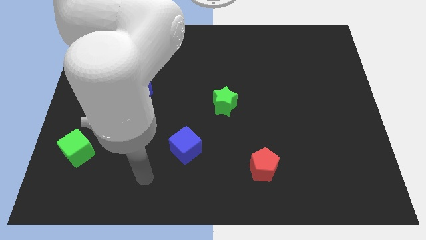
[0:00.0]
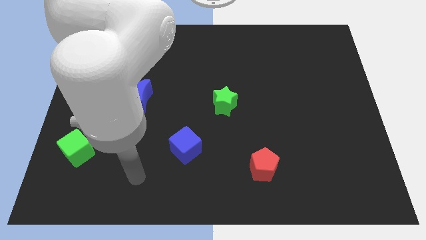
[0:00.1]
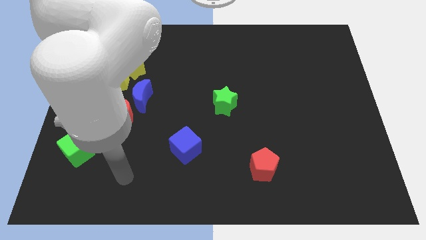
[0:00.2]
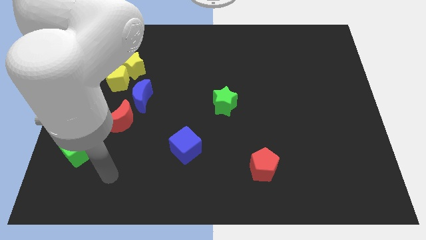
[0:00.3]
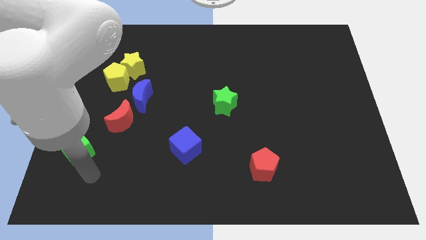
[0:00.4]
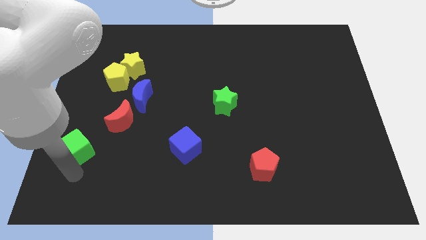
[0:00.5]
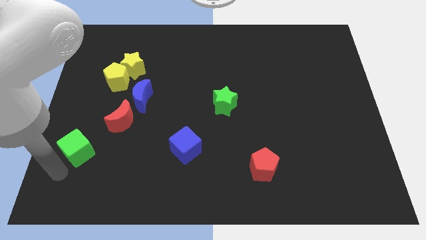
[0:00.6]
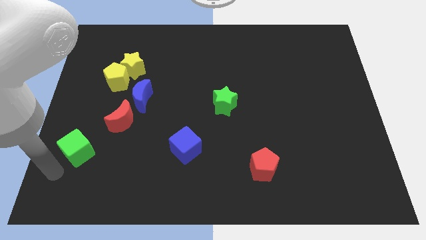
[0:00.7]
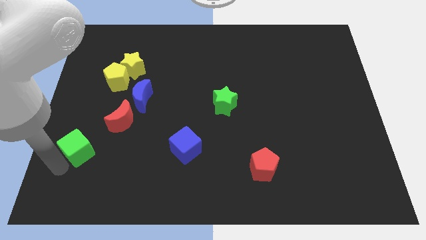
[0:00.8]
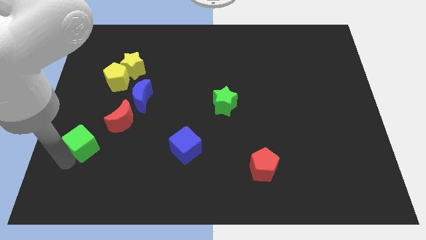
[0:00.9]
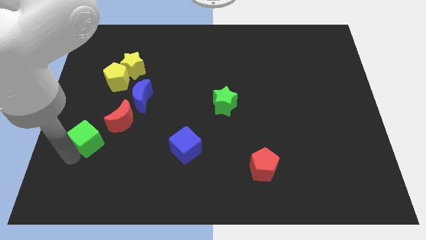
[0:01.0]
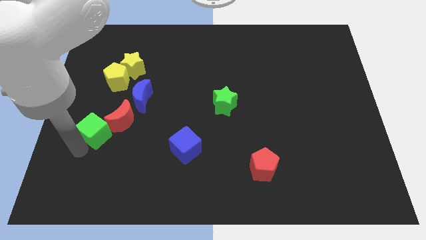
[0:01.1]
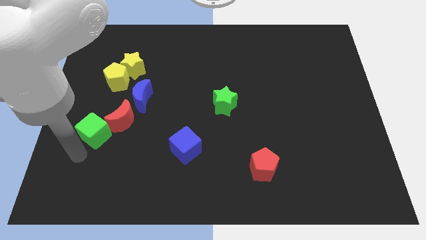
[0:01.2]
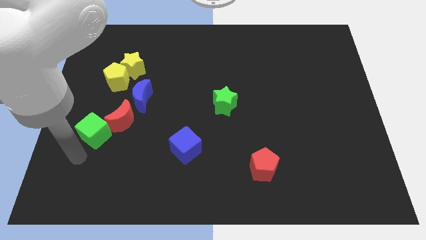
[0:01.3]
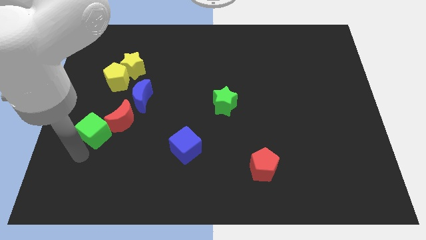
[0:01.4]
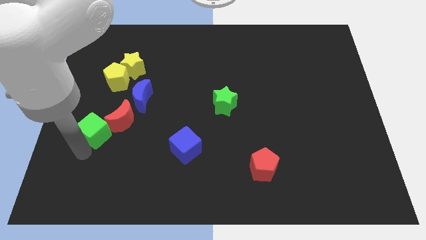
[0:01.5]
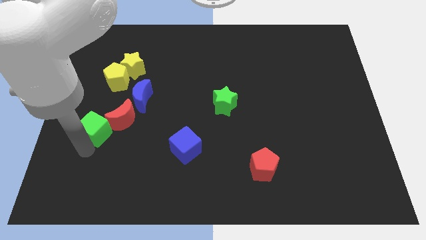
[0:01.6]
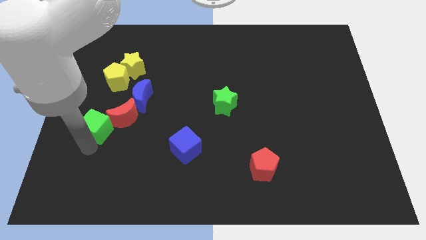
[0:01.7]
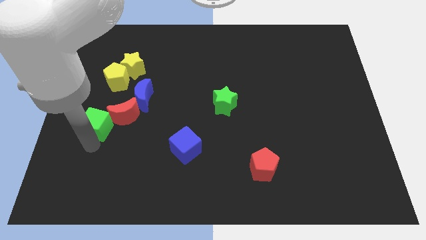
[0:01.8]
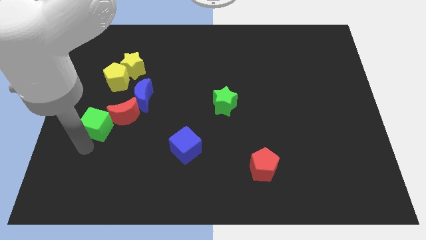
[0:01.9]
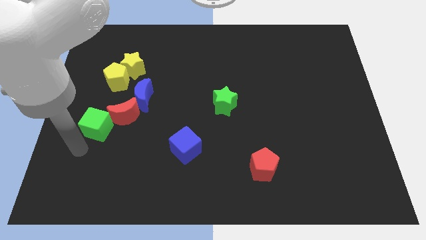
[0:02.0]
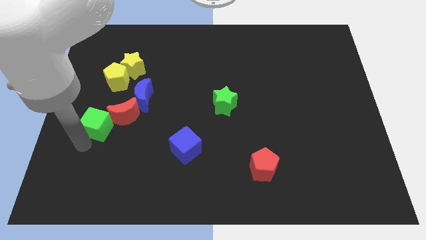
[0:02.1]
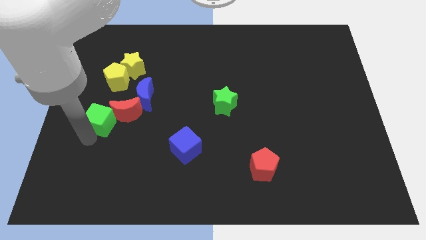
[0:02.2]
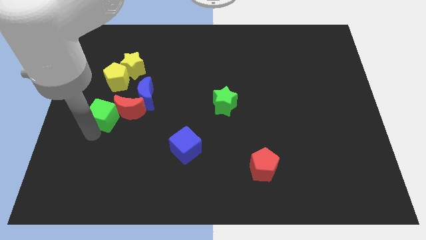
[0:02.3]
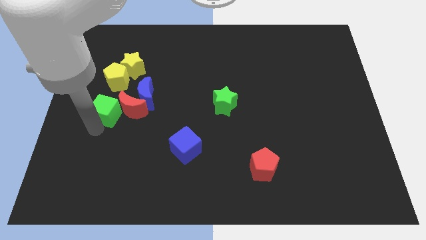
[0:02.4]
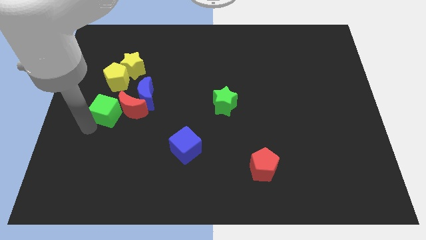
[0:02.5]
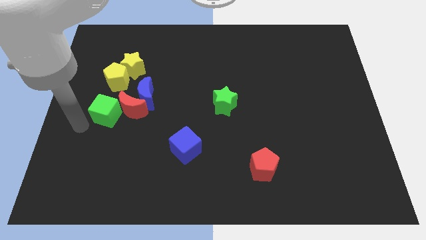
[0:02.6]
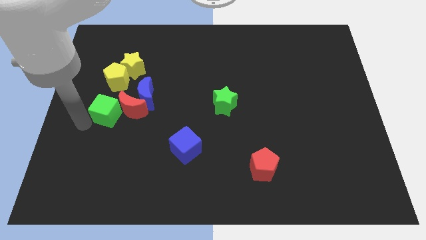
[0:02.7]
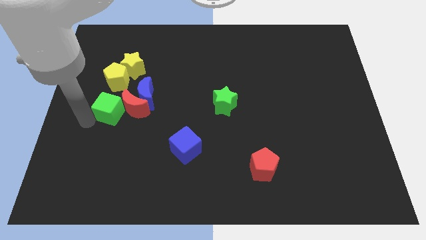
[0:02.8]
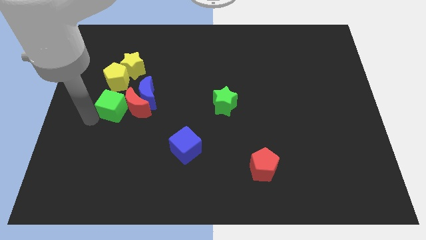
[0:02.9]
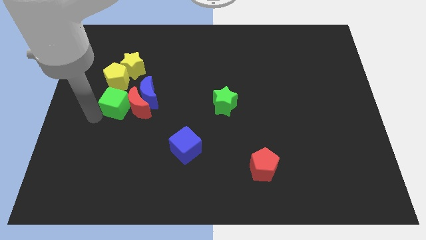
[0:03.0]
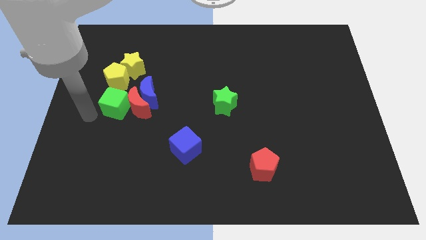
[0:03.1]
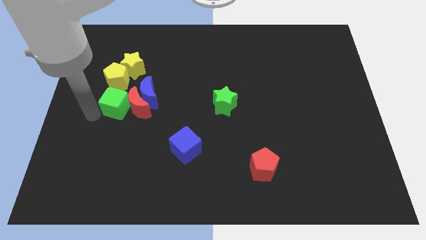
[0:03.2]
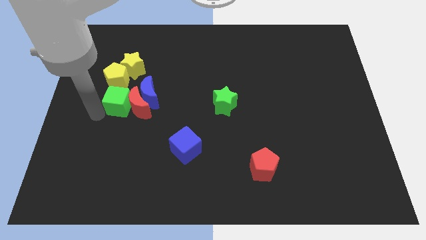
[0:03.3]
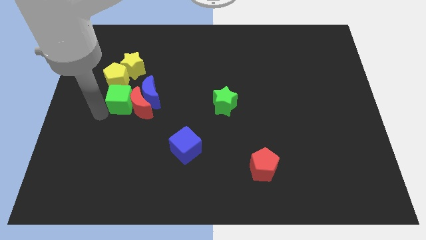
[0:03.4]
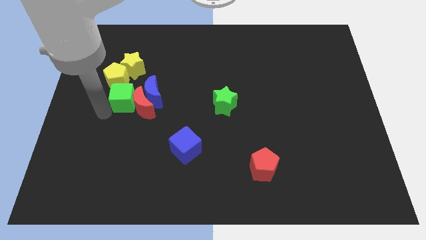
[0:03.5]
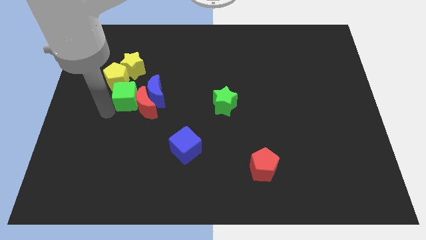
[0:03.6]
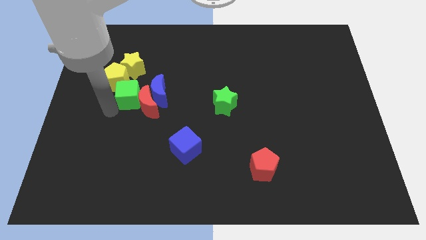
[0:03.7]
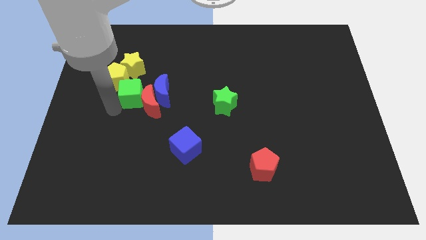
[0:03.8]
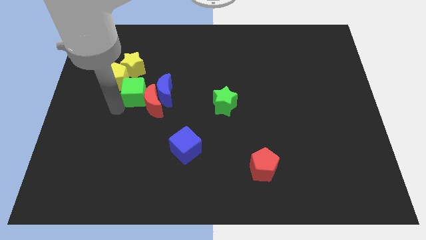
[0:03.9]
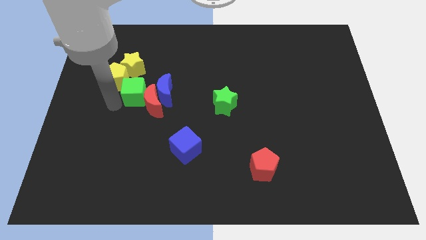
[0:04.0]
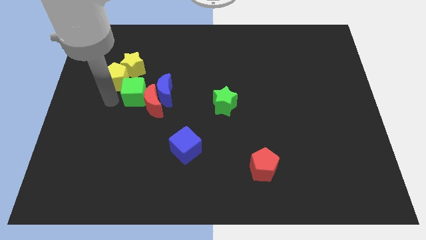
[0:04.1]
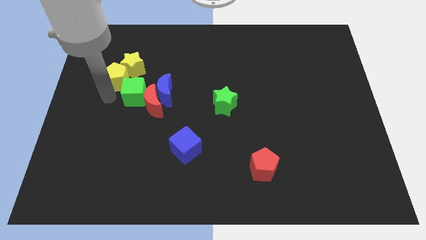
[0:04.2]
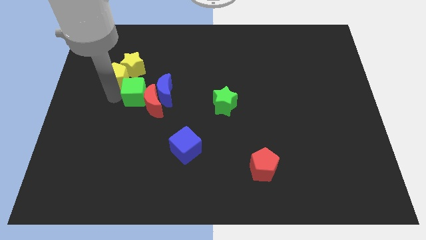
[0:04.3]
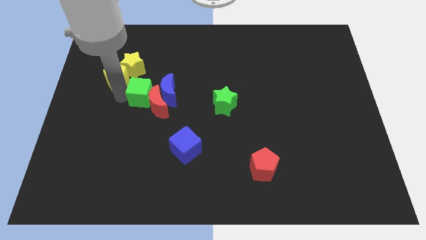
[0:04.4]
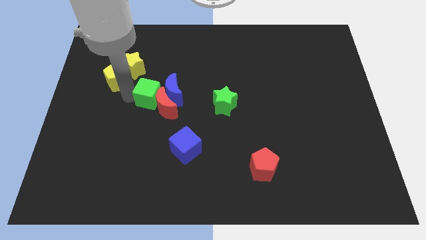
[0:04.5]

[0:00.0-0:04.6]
push the green cube close to the blue moon

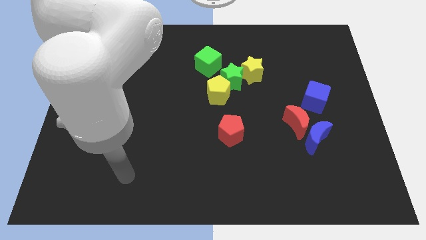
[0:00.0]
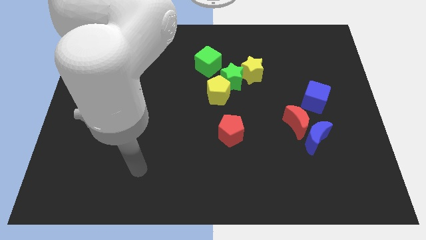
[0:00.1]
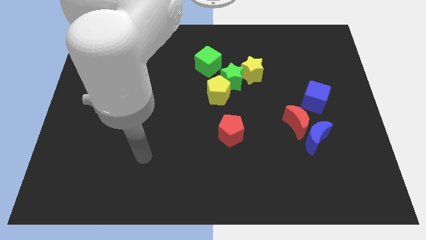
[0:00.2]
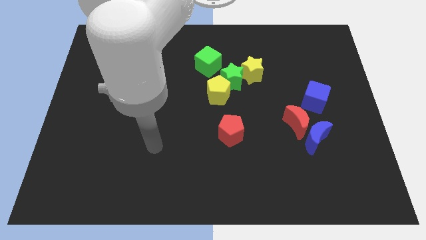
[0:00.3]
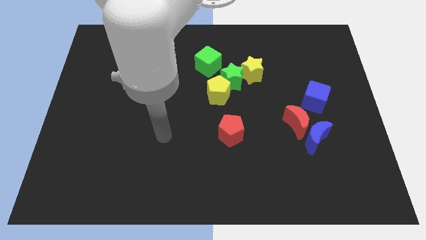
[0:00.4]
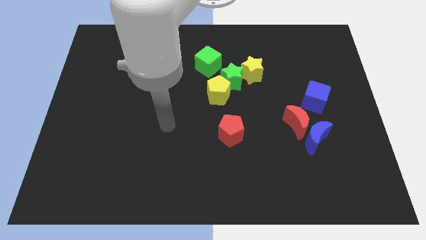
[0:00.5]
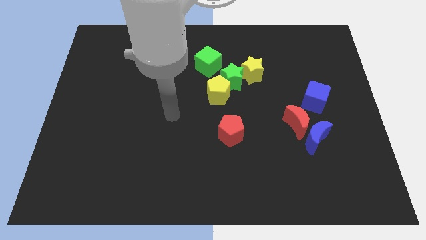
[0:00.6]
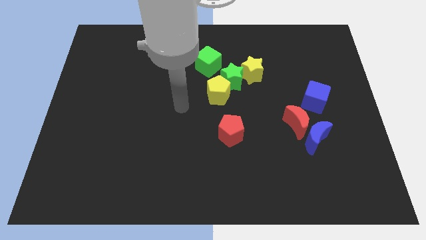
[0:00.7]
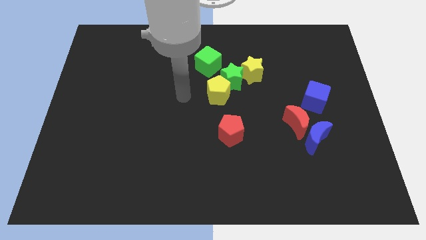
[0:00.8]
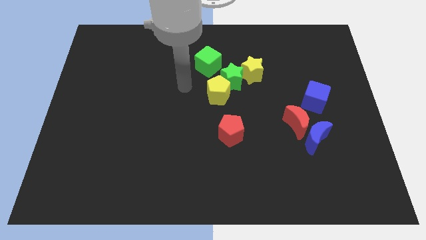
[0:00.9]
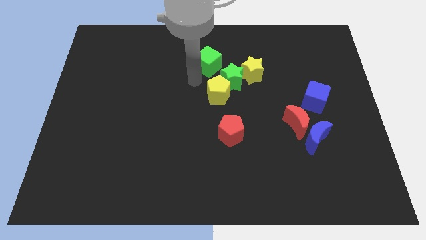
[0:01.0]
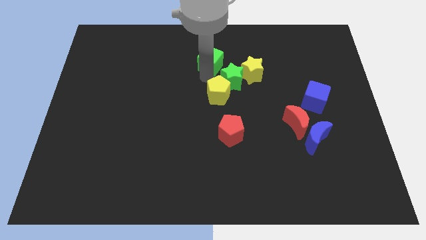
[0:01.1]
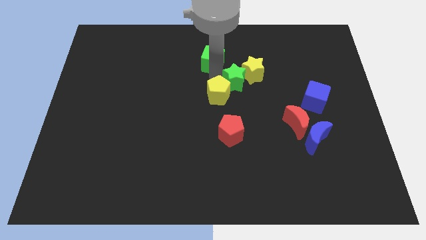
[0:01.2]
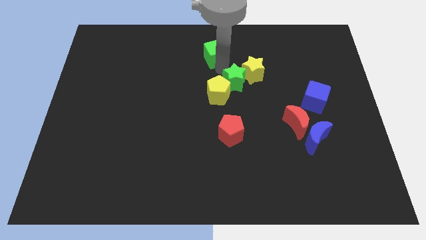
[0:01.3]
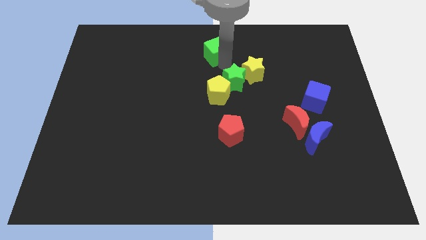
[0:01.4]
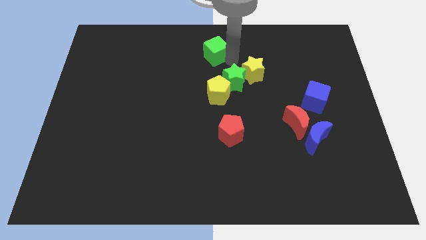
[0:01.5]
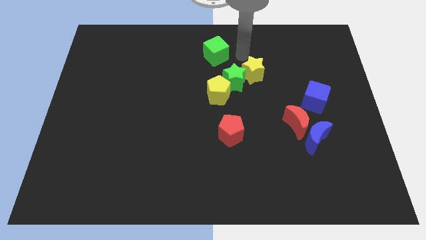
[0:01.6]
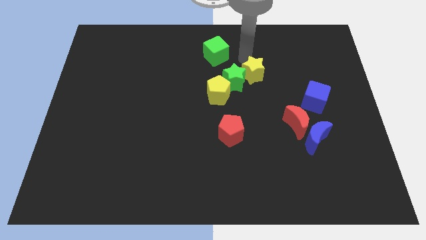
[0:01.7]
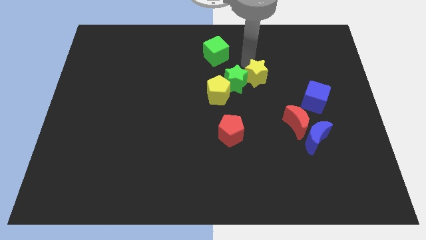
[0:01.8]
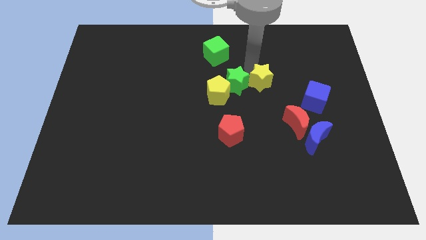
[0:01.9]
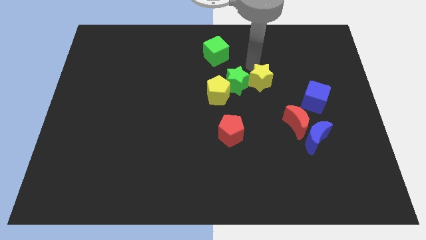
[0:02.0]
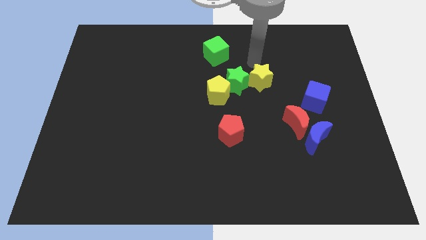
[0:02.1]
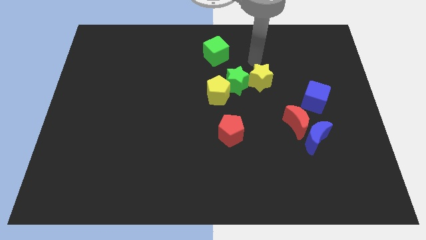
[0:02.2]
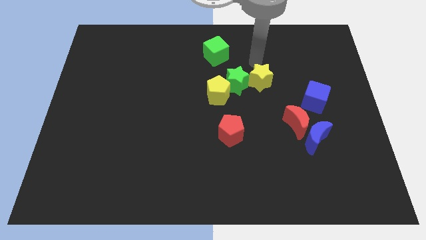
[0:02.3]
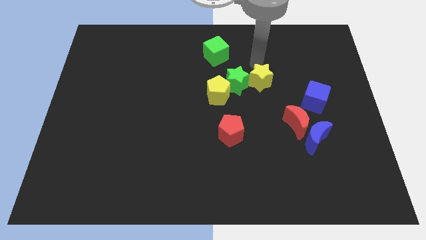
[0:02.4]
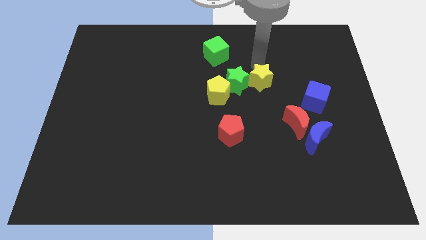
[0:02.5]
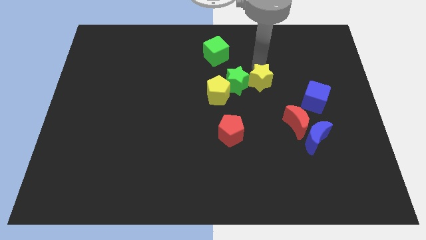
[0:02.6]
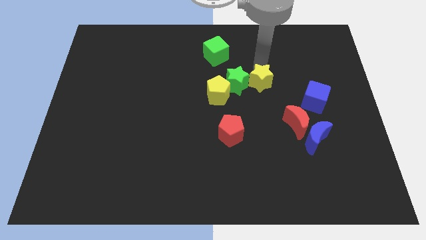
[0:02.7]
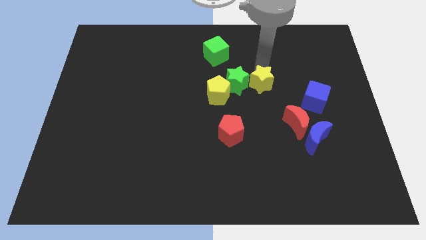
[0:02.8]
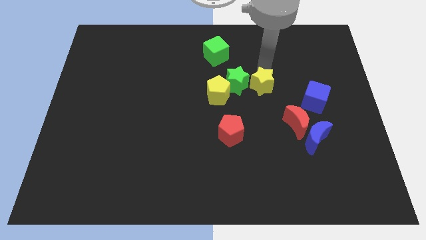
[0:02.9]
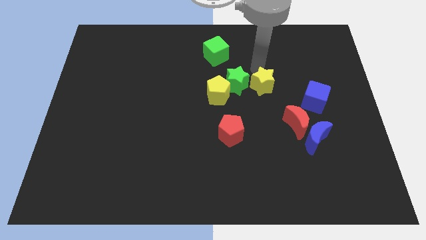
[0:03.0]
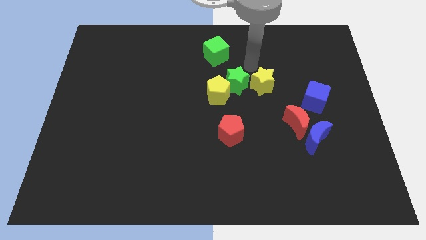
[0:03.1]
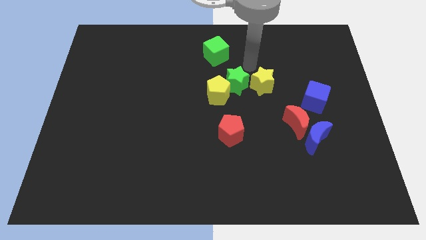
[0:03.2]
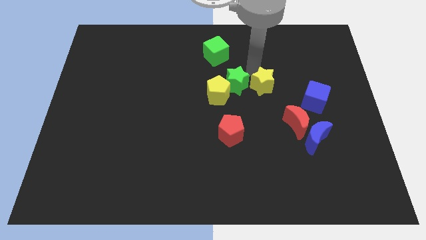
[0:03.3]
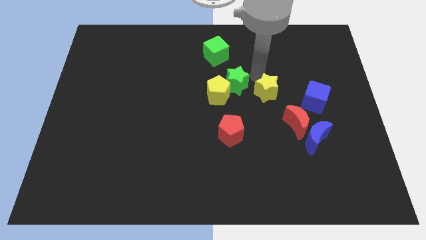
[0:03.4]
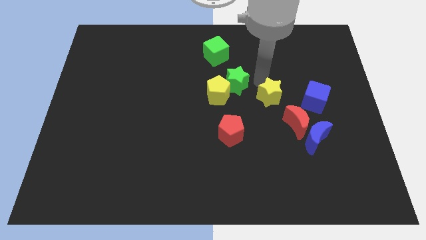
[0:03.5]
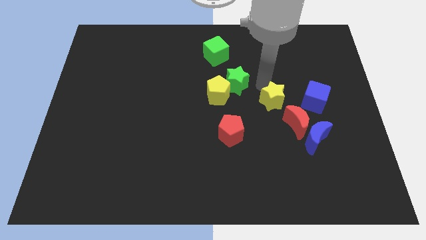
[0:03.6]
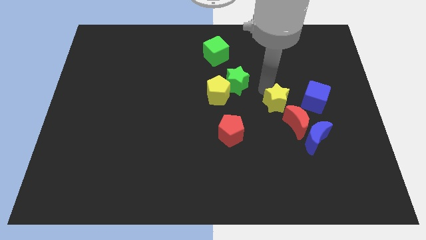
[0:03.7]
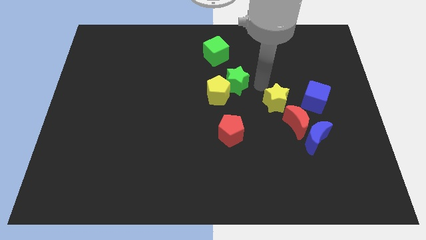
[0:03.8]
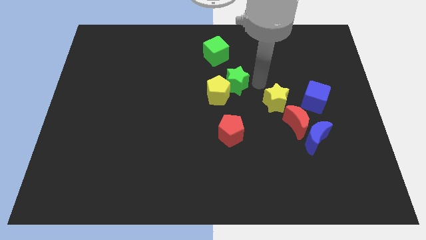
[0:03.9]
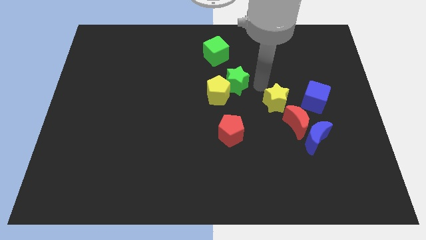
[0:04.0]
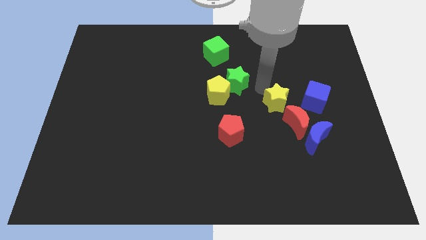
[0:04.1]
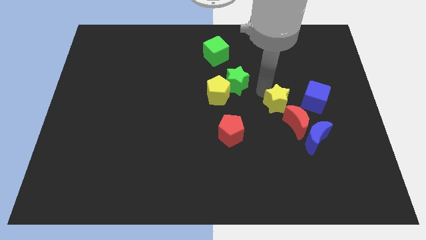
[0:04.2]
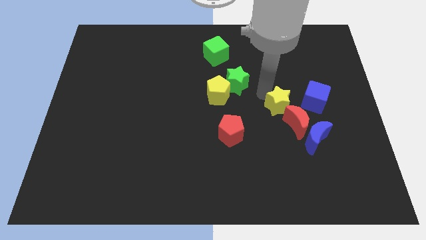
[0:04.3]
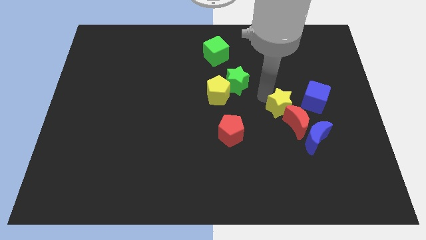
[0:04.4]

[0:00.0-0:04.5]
put the yellow star to the red moon
